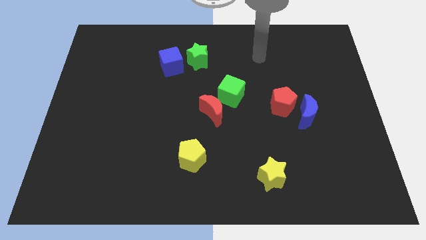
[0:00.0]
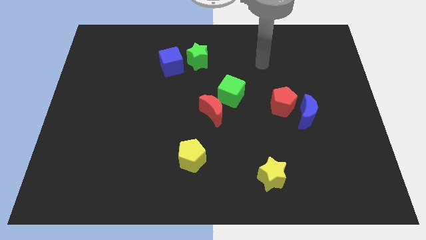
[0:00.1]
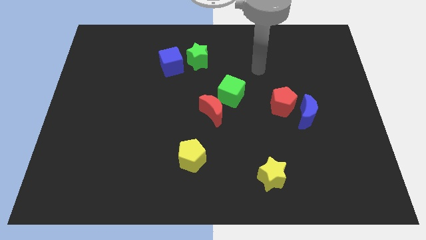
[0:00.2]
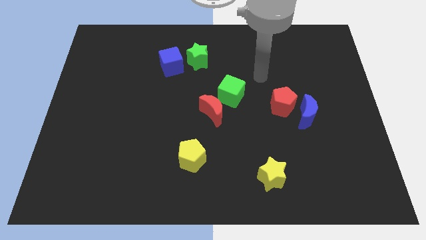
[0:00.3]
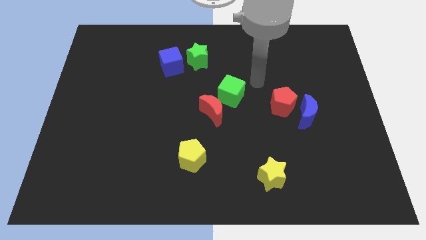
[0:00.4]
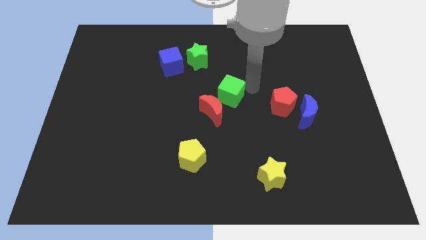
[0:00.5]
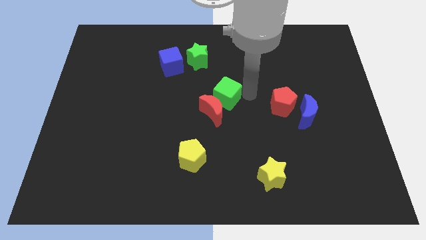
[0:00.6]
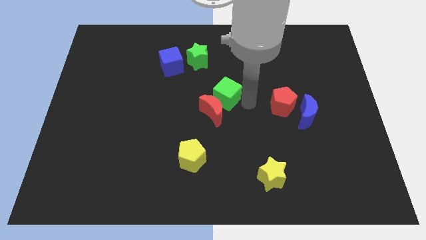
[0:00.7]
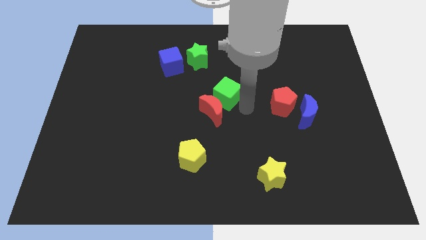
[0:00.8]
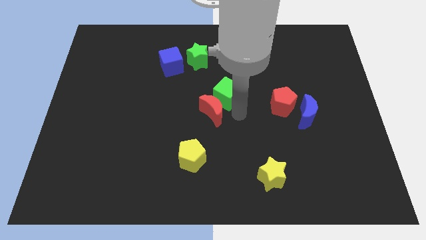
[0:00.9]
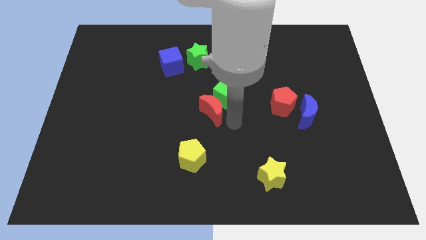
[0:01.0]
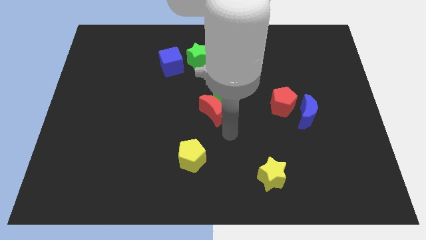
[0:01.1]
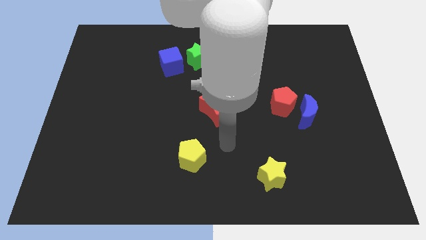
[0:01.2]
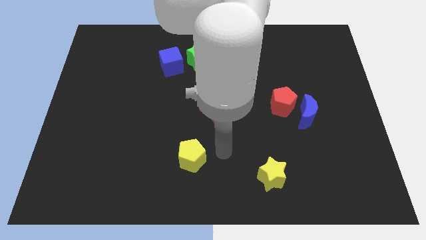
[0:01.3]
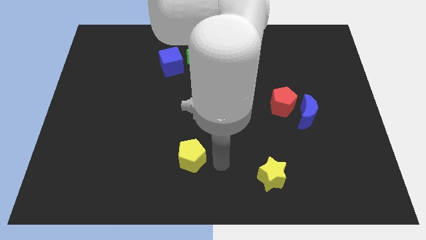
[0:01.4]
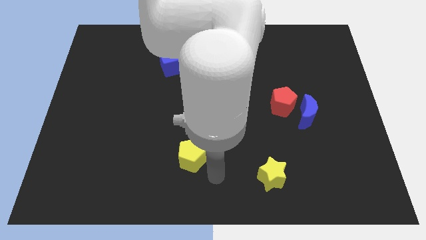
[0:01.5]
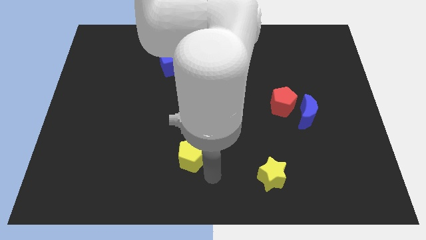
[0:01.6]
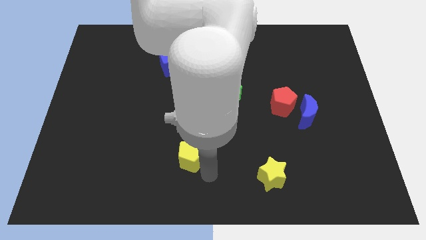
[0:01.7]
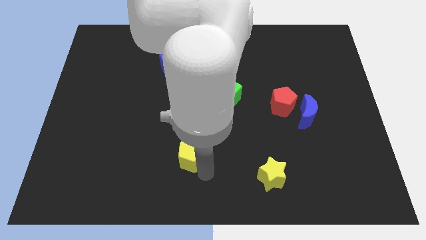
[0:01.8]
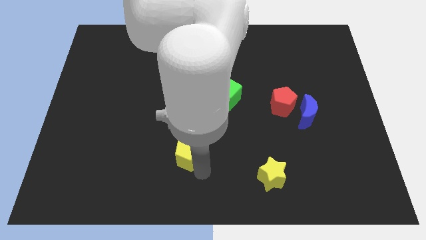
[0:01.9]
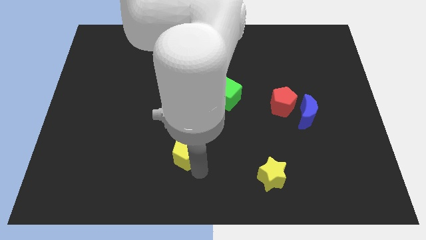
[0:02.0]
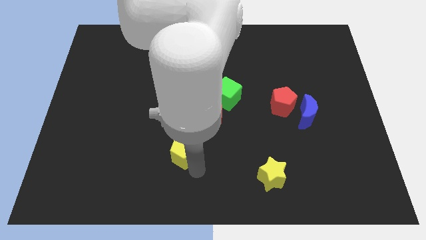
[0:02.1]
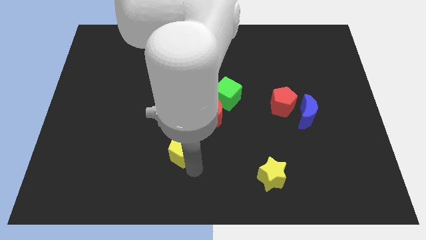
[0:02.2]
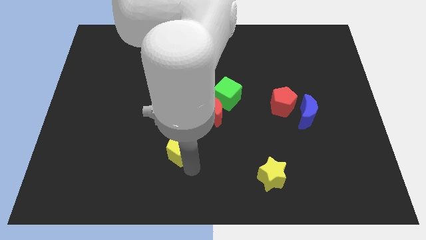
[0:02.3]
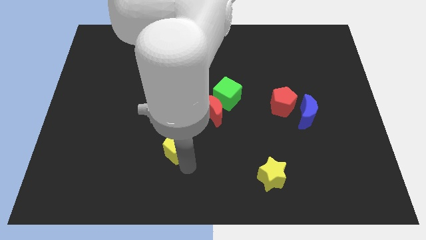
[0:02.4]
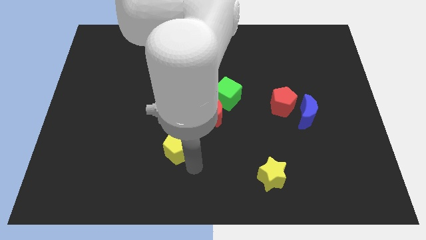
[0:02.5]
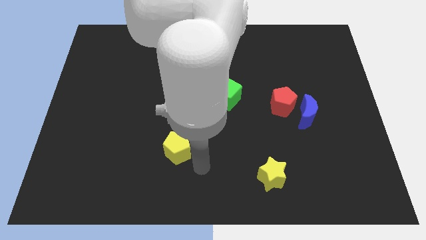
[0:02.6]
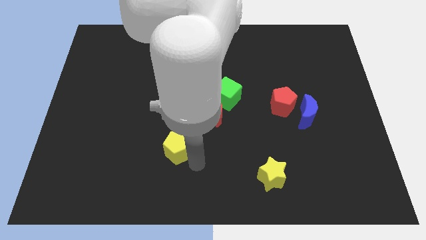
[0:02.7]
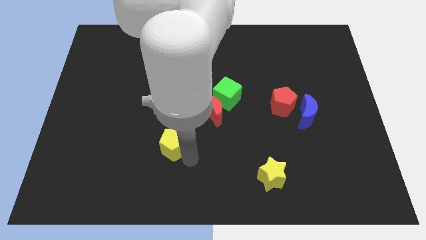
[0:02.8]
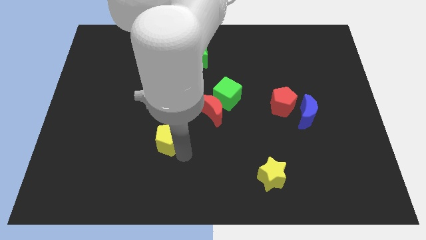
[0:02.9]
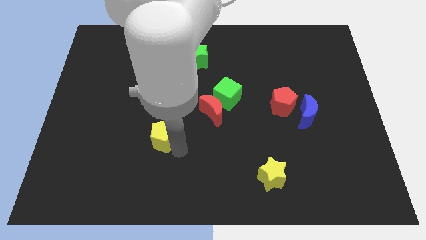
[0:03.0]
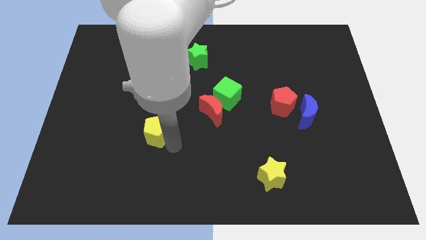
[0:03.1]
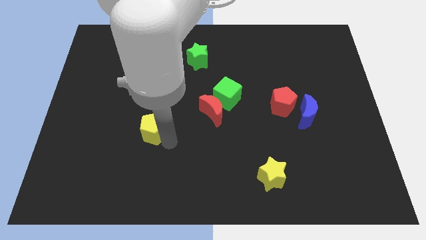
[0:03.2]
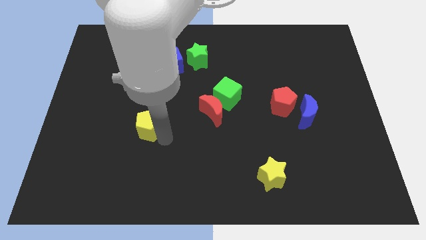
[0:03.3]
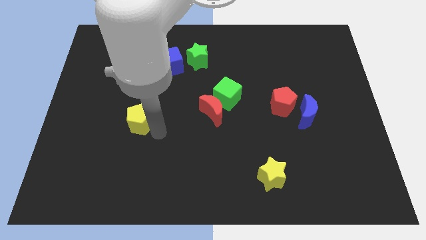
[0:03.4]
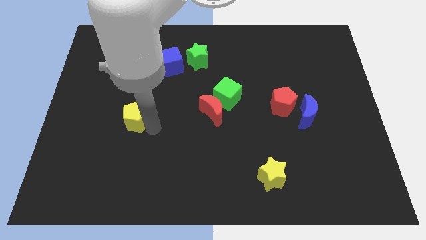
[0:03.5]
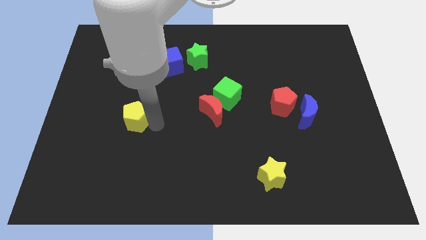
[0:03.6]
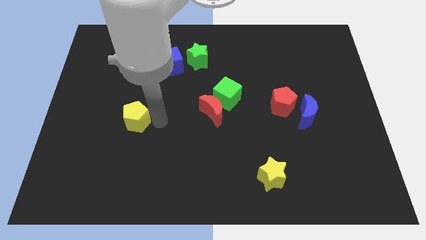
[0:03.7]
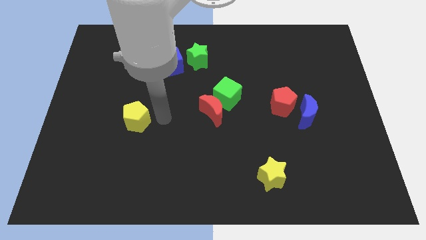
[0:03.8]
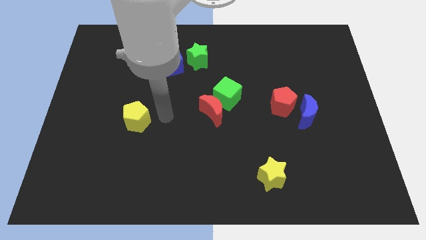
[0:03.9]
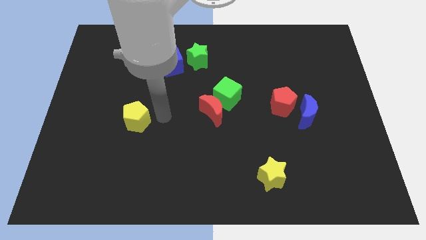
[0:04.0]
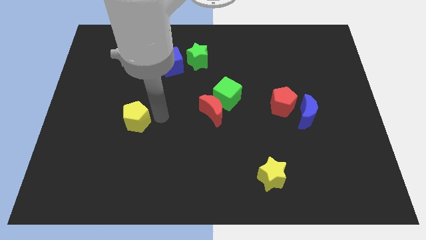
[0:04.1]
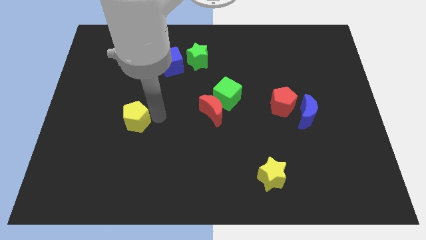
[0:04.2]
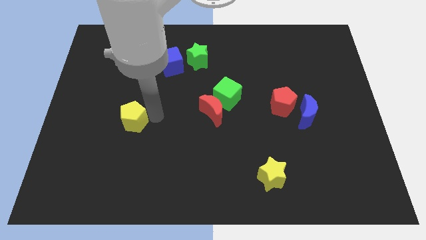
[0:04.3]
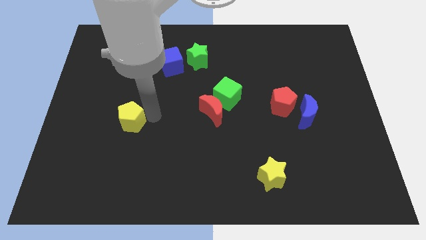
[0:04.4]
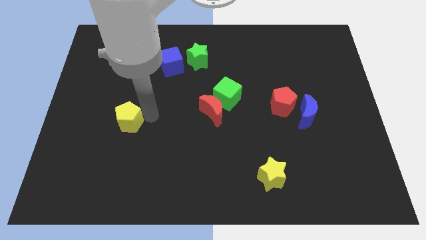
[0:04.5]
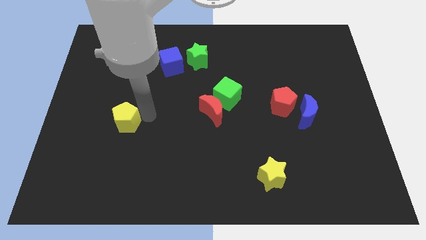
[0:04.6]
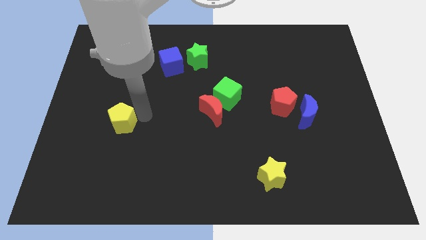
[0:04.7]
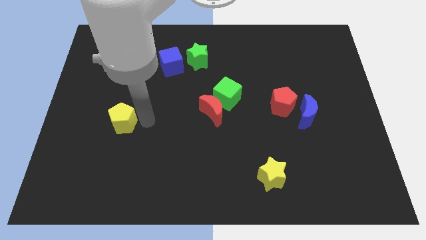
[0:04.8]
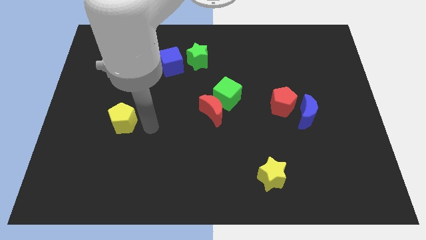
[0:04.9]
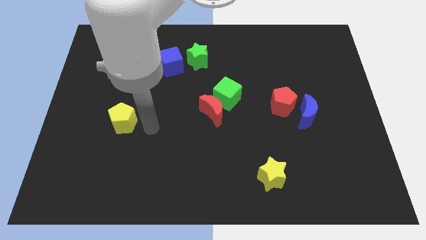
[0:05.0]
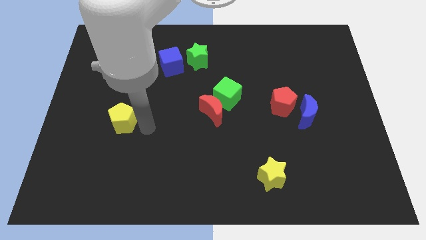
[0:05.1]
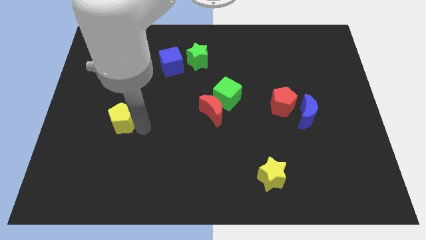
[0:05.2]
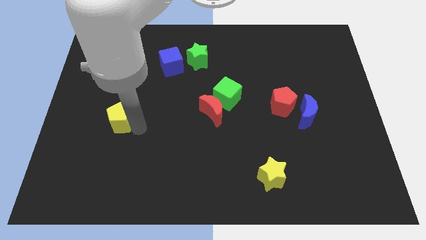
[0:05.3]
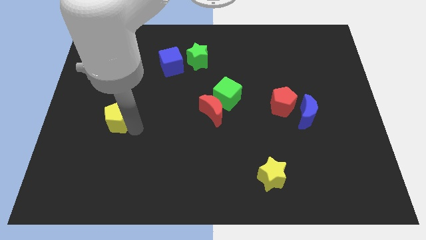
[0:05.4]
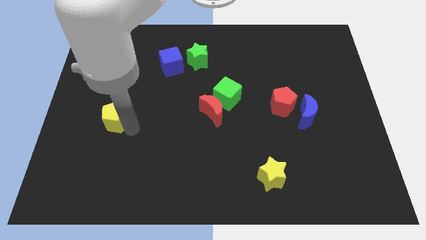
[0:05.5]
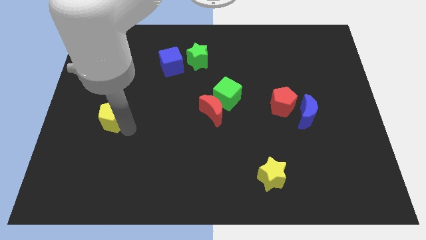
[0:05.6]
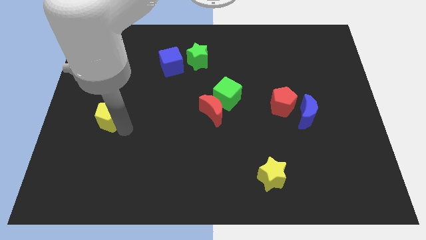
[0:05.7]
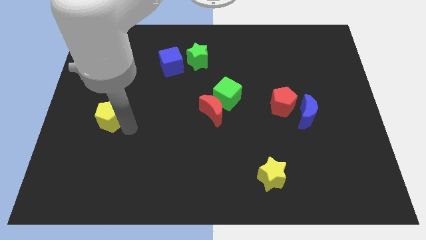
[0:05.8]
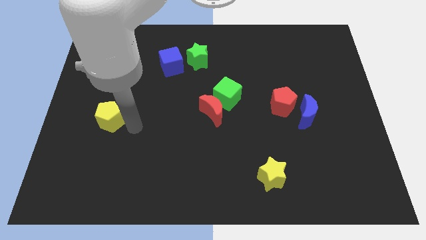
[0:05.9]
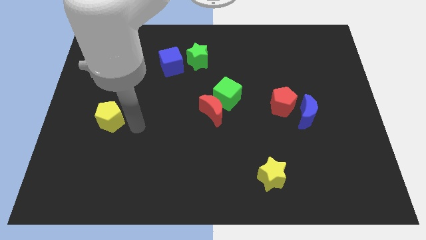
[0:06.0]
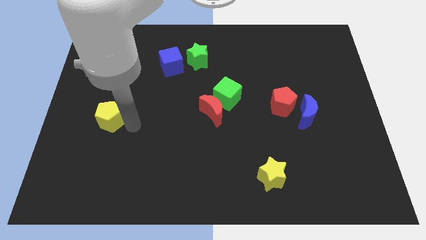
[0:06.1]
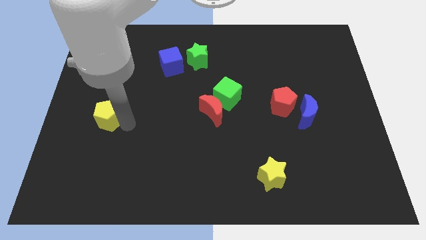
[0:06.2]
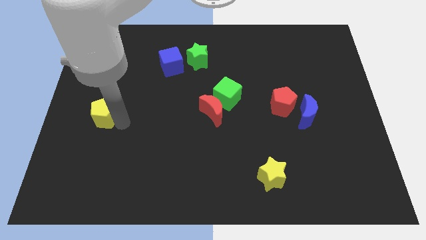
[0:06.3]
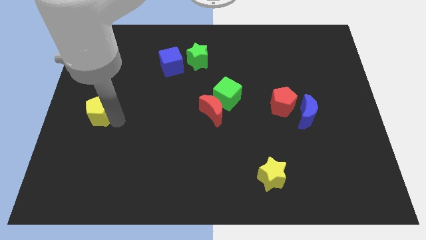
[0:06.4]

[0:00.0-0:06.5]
push the yellow pentagon to the left side
